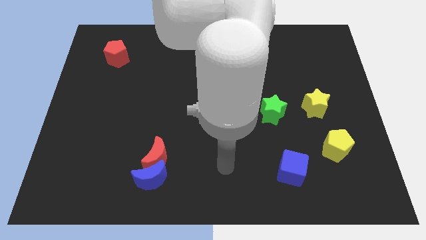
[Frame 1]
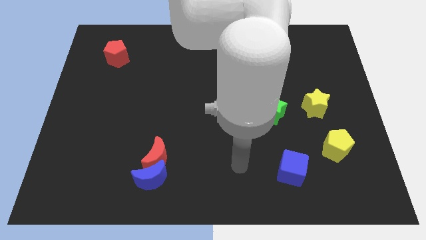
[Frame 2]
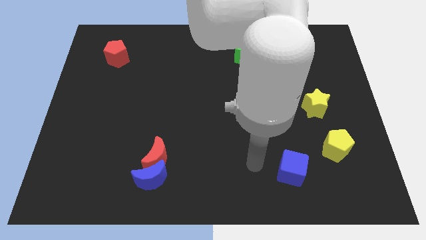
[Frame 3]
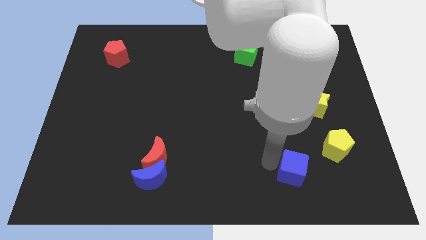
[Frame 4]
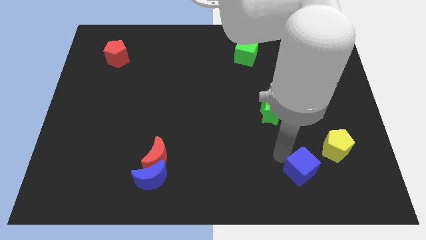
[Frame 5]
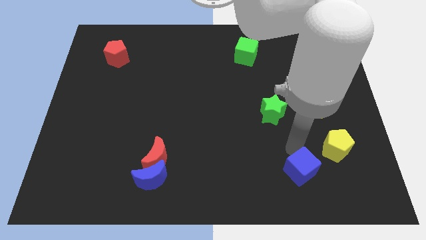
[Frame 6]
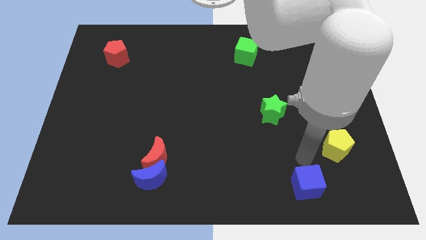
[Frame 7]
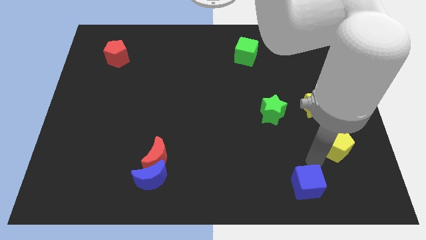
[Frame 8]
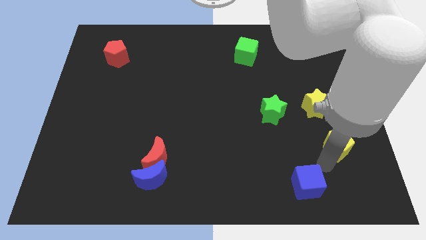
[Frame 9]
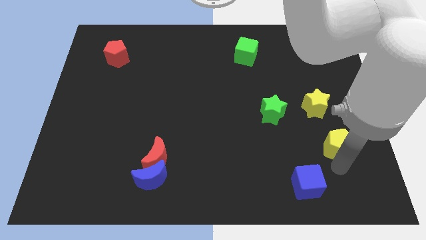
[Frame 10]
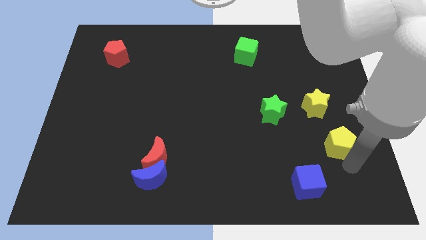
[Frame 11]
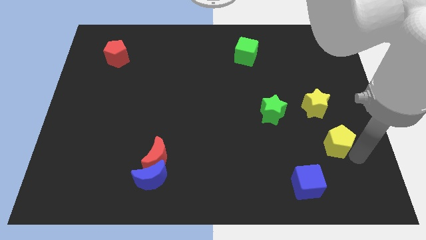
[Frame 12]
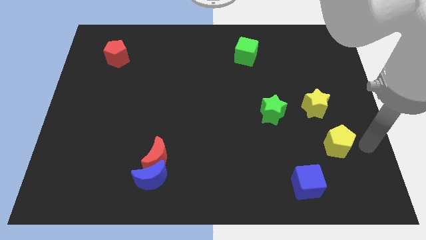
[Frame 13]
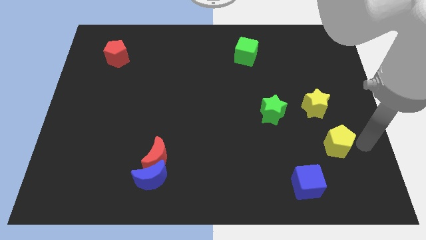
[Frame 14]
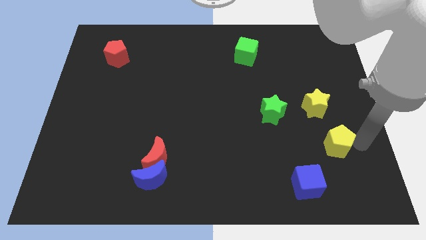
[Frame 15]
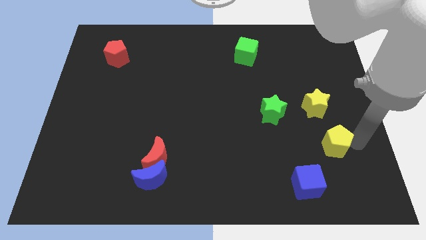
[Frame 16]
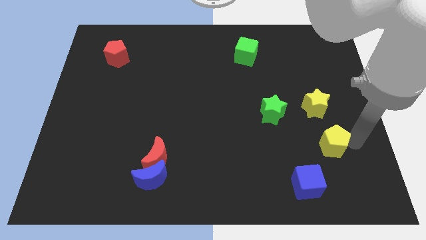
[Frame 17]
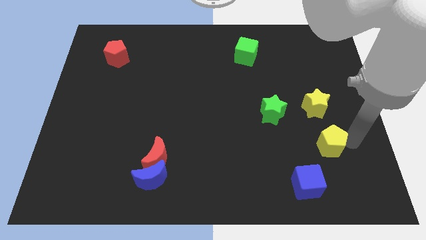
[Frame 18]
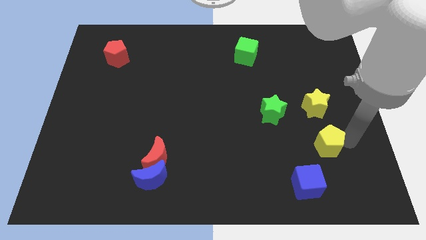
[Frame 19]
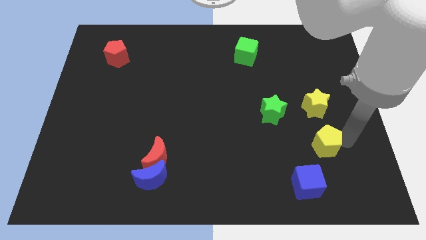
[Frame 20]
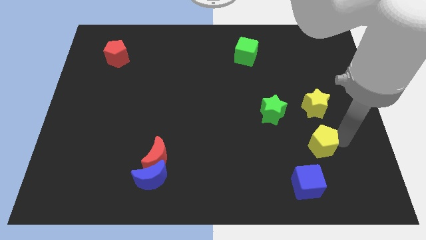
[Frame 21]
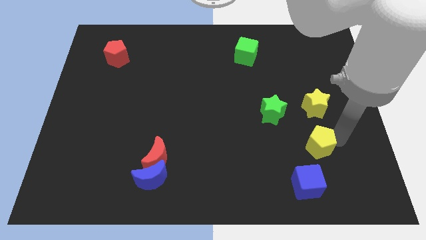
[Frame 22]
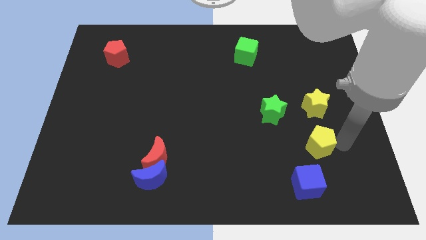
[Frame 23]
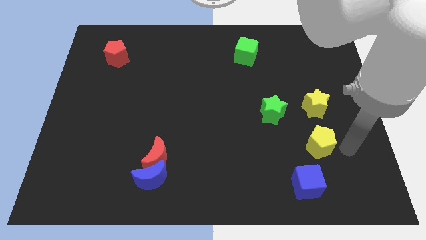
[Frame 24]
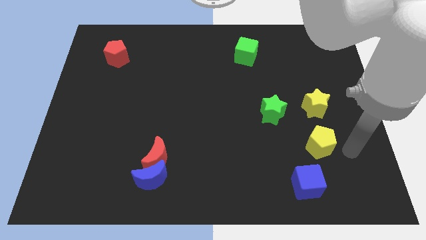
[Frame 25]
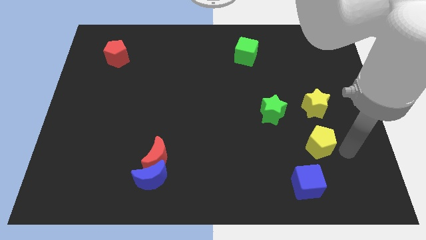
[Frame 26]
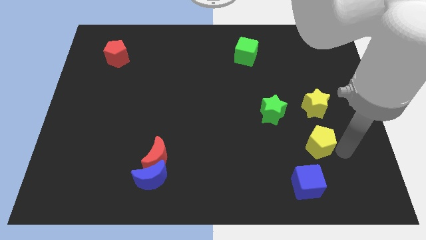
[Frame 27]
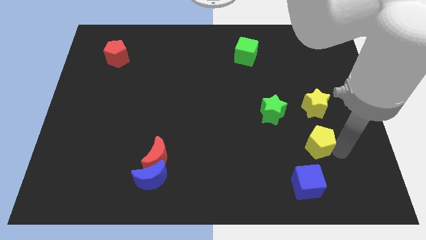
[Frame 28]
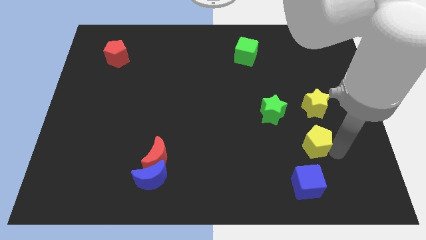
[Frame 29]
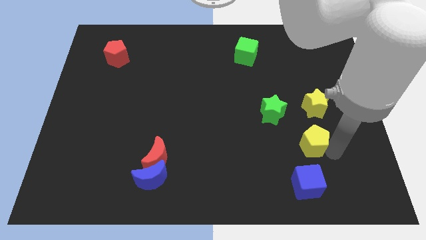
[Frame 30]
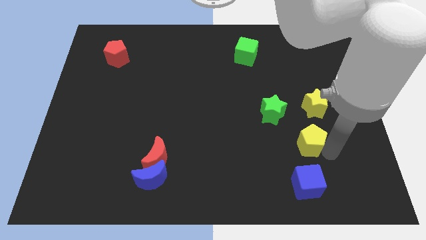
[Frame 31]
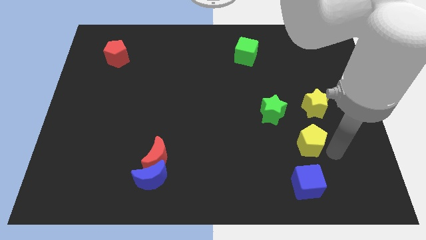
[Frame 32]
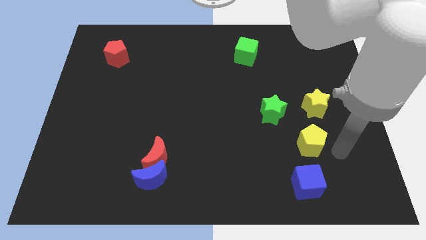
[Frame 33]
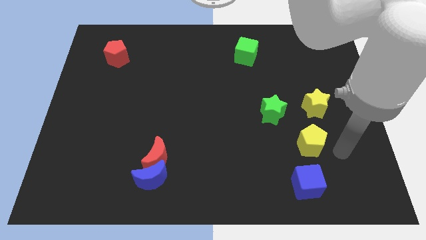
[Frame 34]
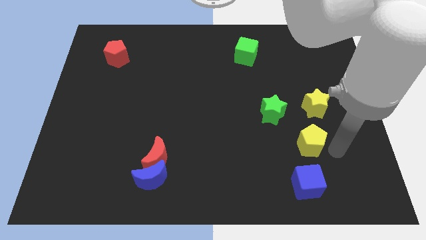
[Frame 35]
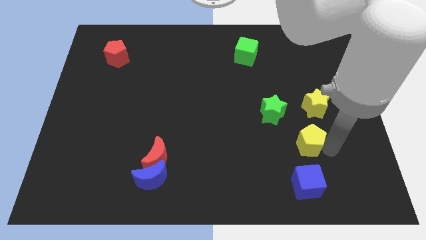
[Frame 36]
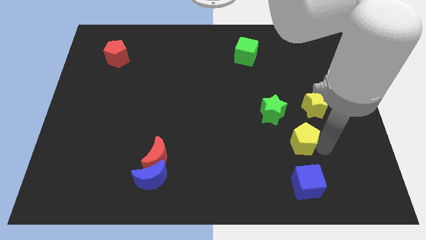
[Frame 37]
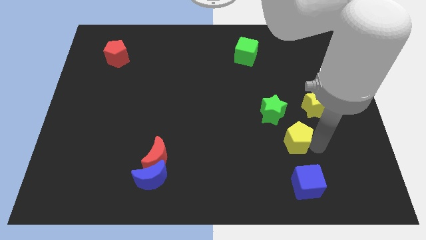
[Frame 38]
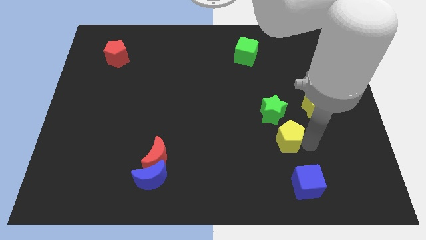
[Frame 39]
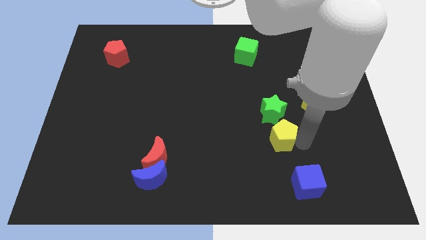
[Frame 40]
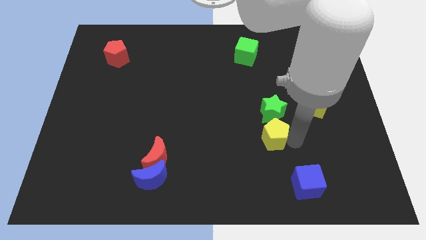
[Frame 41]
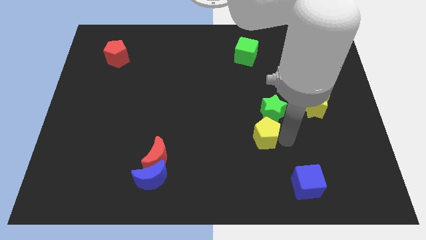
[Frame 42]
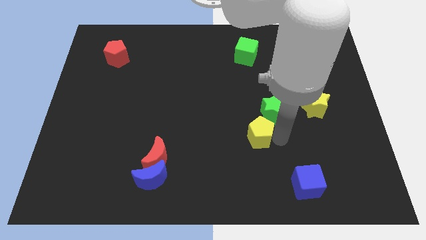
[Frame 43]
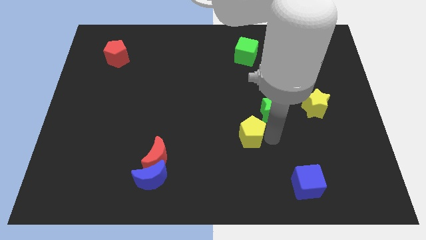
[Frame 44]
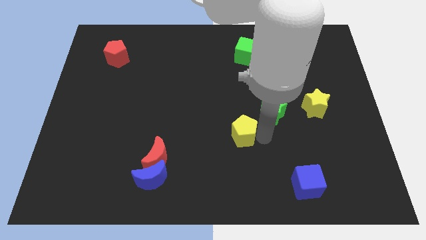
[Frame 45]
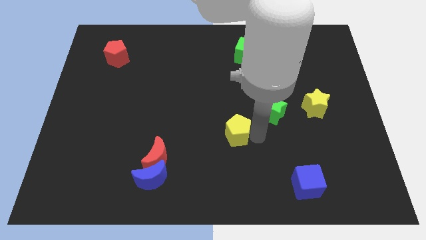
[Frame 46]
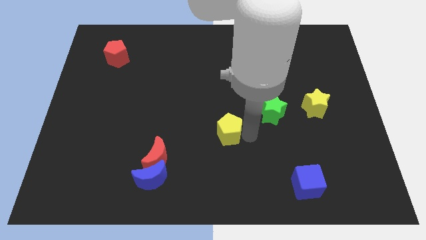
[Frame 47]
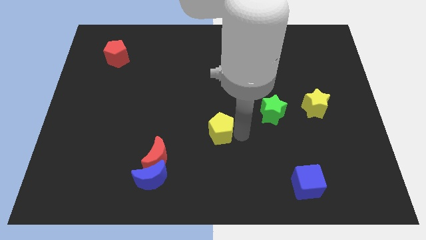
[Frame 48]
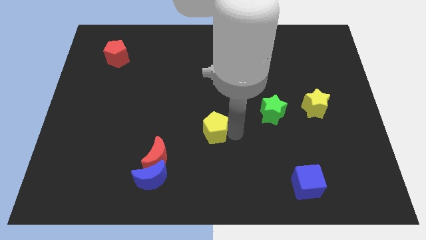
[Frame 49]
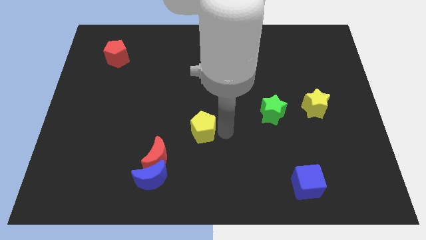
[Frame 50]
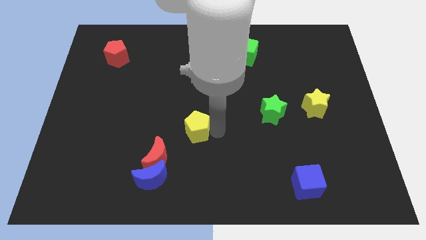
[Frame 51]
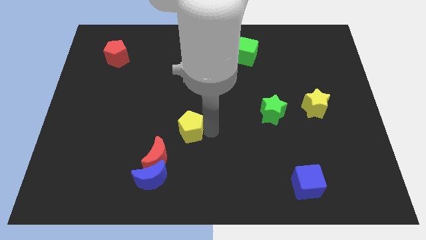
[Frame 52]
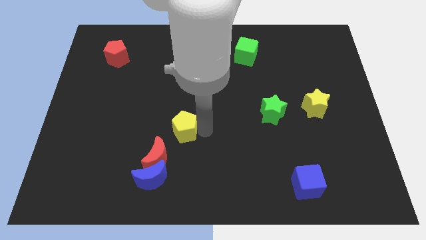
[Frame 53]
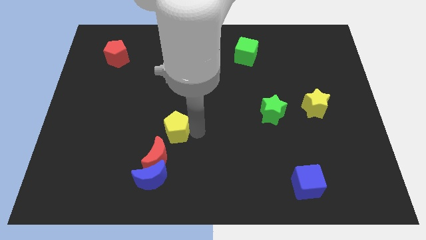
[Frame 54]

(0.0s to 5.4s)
slide the yellow pentagon to the top side of the red moon

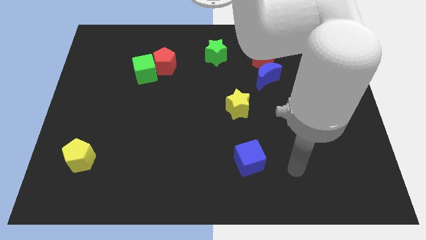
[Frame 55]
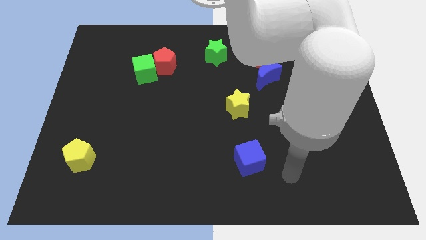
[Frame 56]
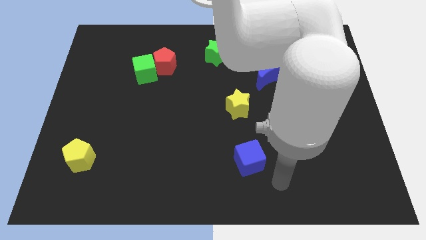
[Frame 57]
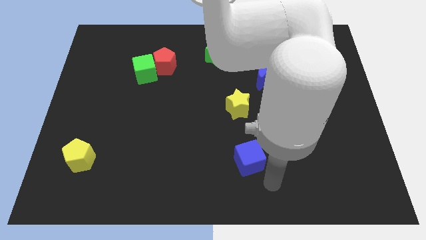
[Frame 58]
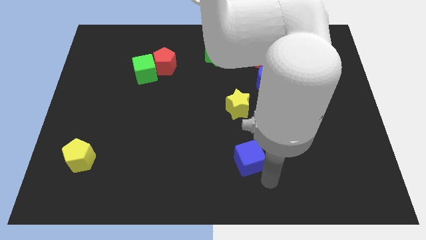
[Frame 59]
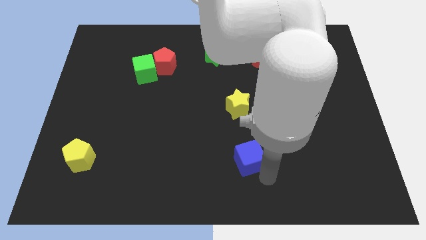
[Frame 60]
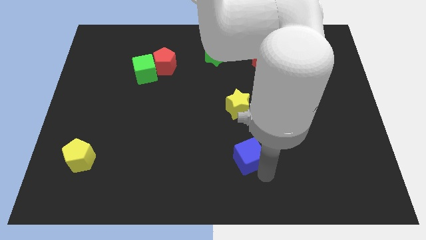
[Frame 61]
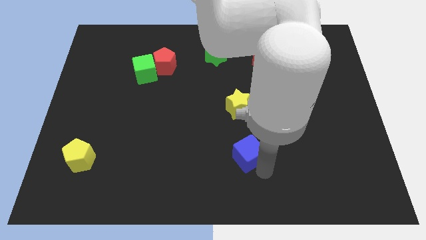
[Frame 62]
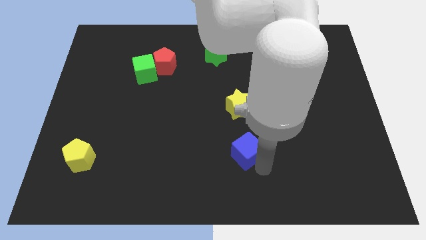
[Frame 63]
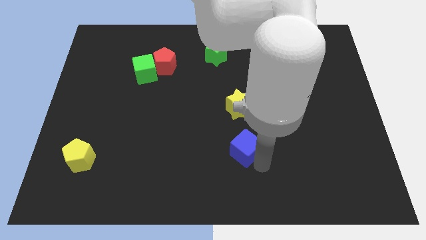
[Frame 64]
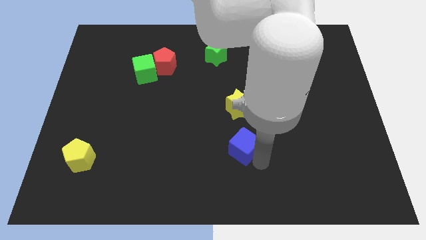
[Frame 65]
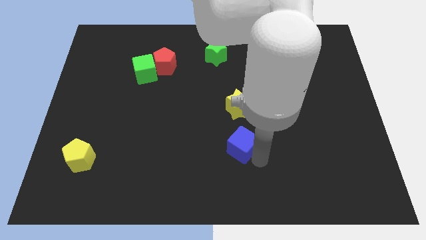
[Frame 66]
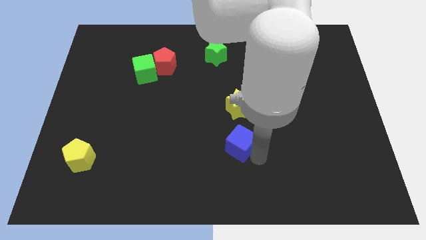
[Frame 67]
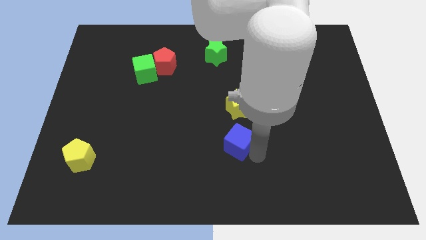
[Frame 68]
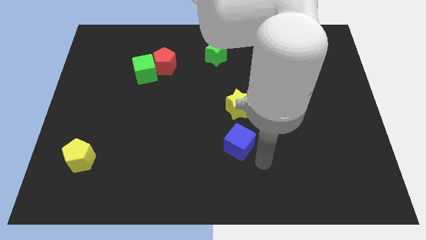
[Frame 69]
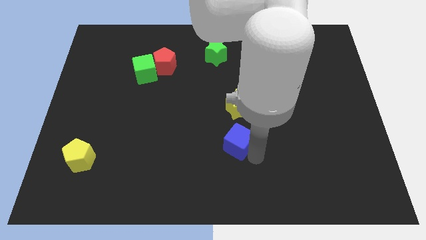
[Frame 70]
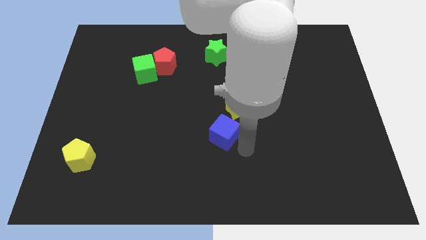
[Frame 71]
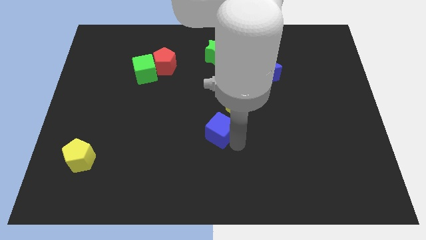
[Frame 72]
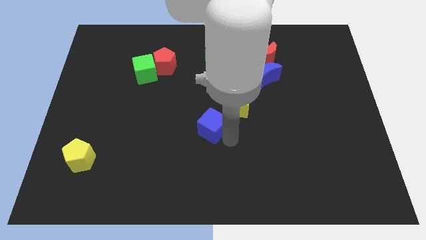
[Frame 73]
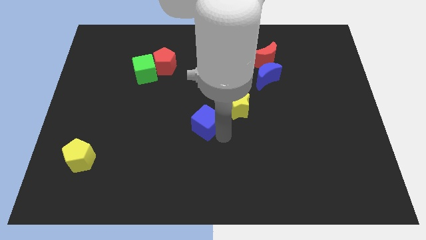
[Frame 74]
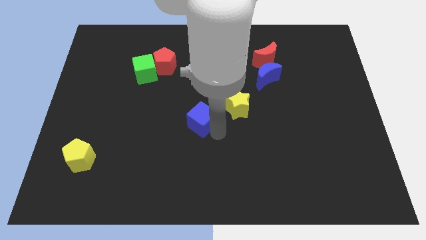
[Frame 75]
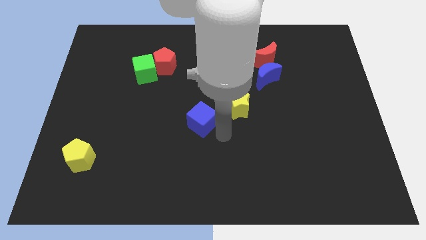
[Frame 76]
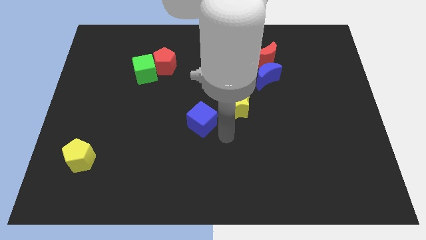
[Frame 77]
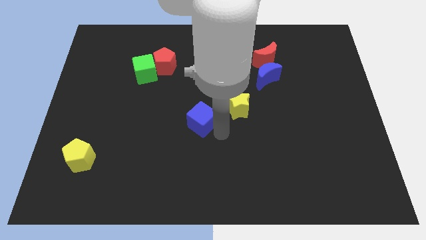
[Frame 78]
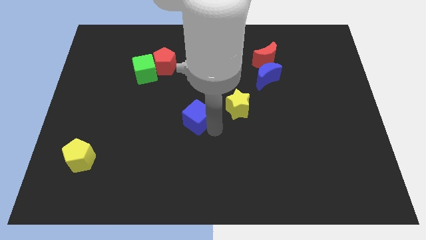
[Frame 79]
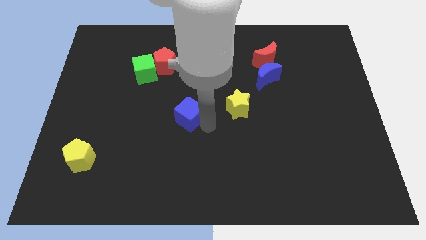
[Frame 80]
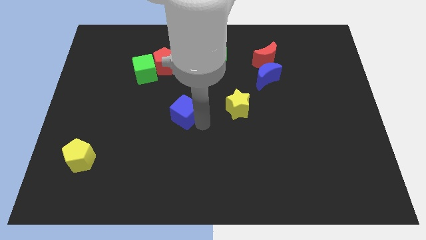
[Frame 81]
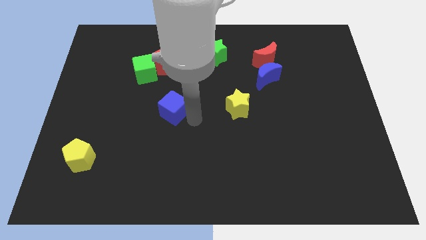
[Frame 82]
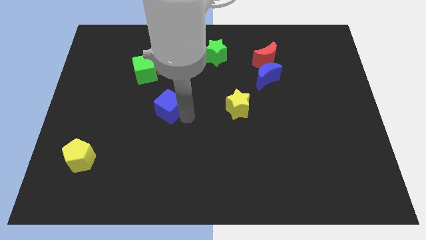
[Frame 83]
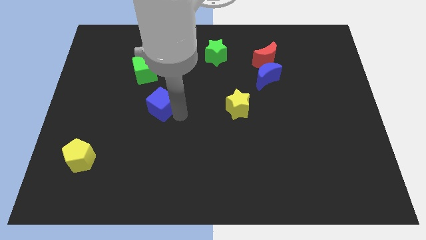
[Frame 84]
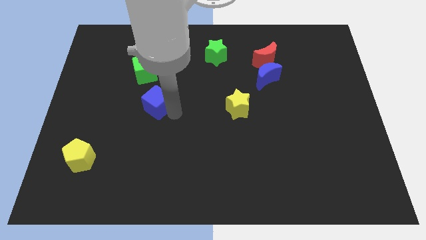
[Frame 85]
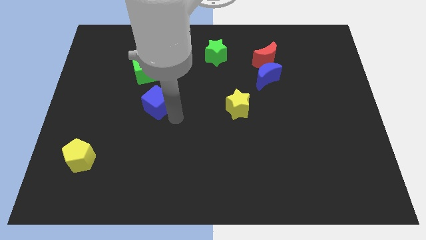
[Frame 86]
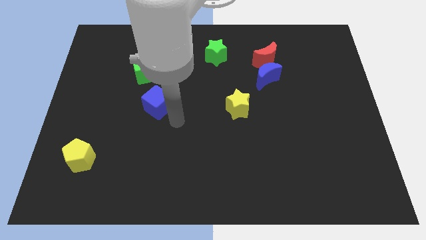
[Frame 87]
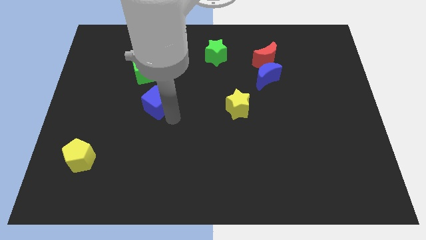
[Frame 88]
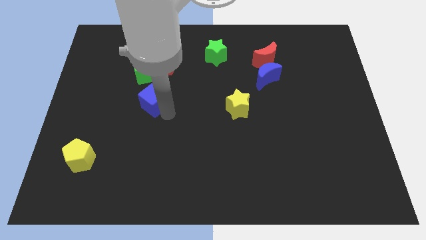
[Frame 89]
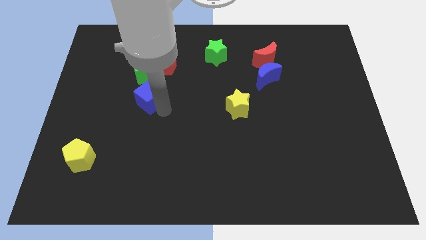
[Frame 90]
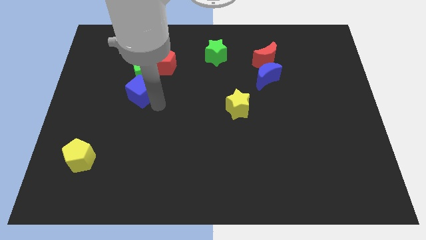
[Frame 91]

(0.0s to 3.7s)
push the blue cube to the bottom left of the green cube
